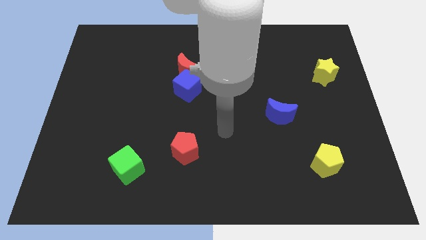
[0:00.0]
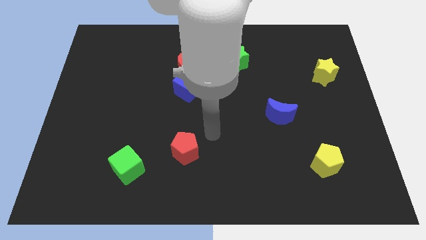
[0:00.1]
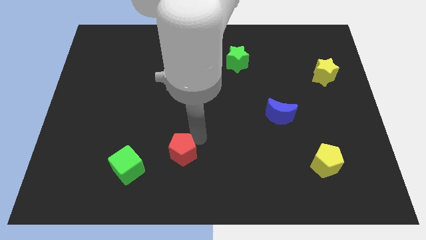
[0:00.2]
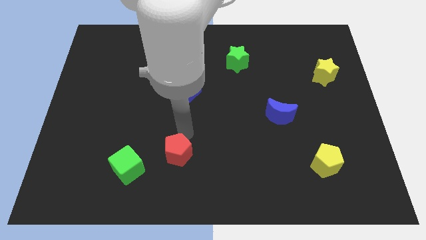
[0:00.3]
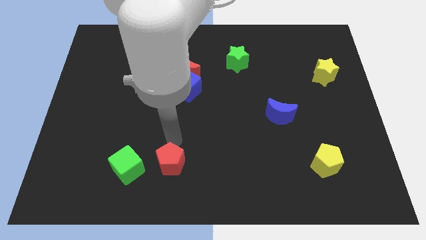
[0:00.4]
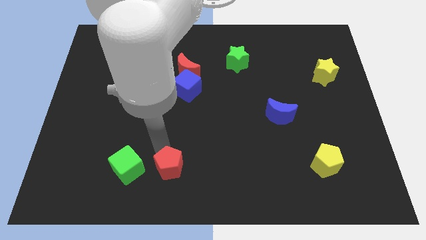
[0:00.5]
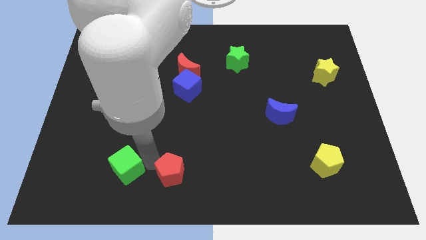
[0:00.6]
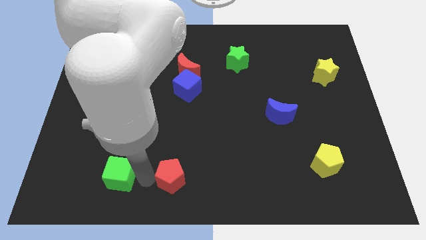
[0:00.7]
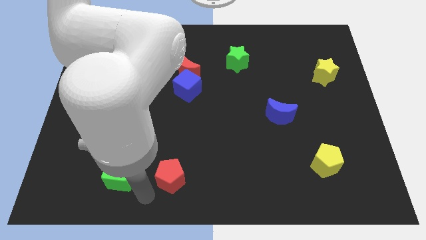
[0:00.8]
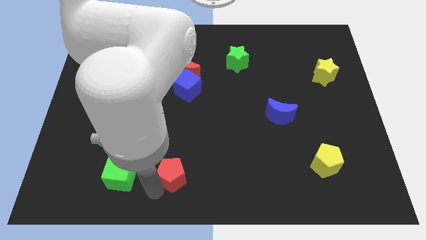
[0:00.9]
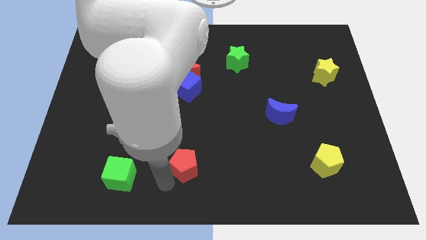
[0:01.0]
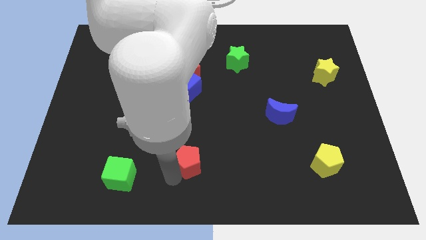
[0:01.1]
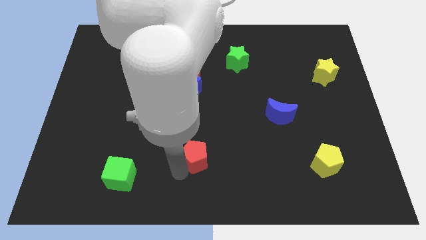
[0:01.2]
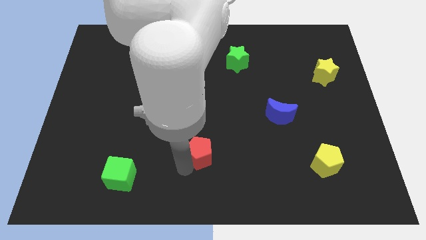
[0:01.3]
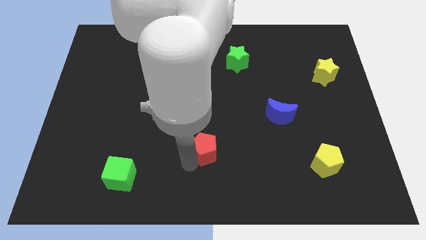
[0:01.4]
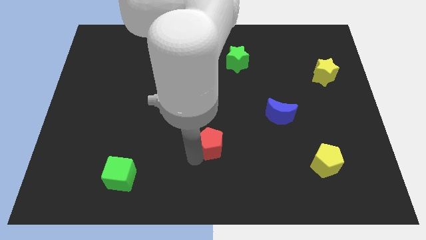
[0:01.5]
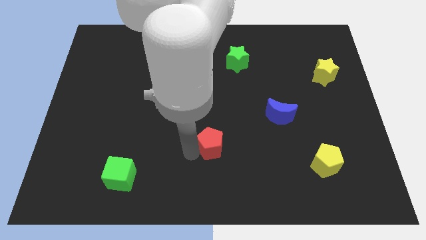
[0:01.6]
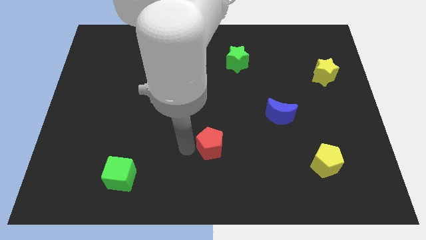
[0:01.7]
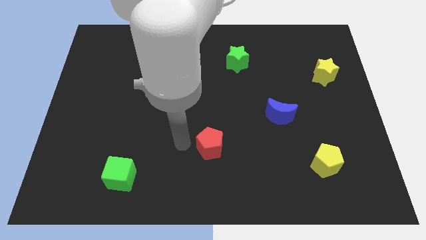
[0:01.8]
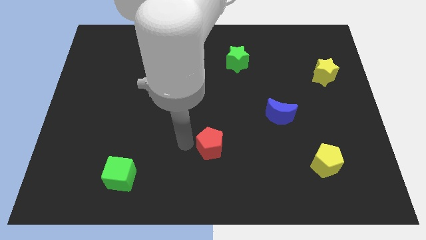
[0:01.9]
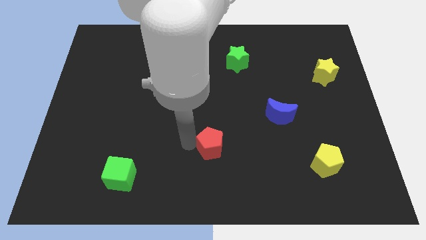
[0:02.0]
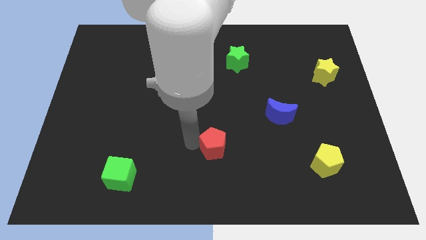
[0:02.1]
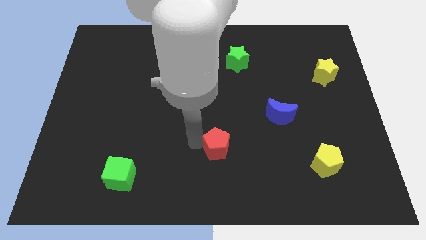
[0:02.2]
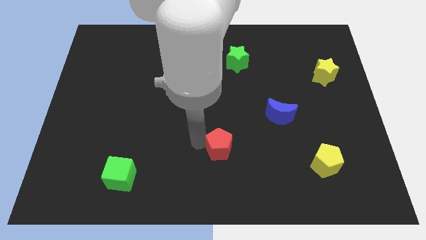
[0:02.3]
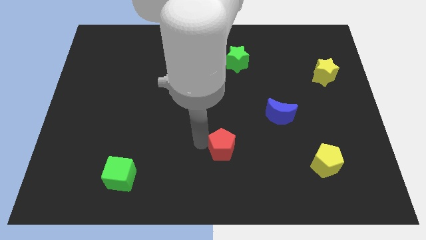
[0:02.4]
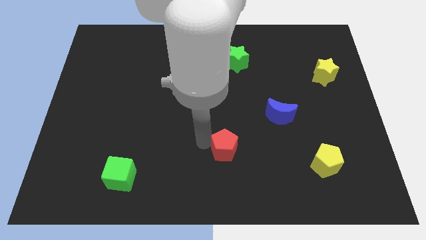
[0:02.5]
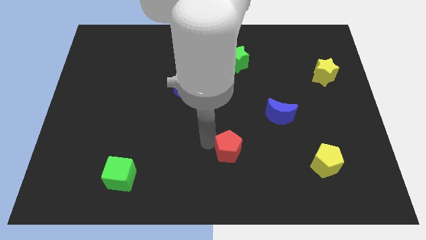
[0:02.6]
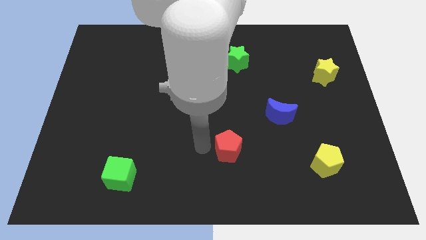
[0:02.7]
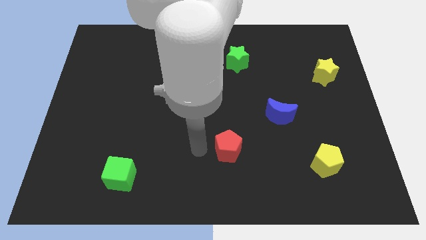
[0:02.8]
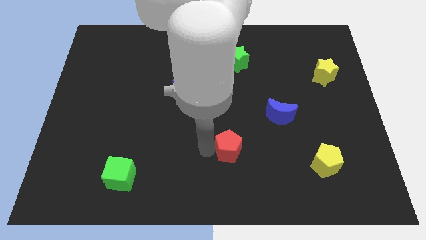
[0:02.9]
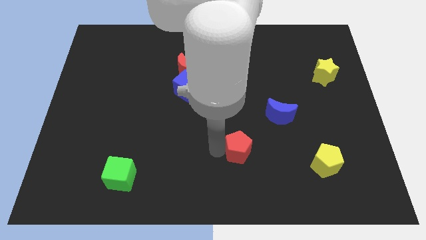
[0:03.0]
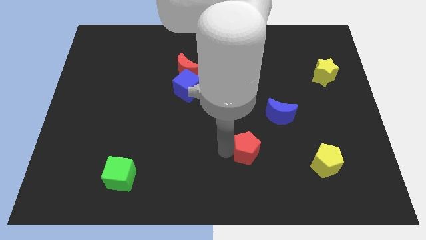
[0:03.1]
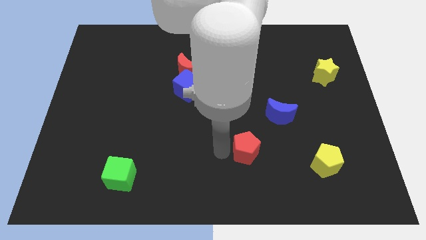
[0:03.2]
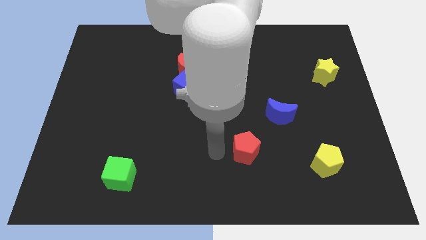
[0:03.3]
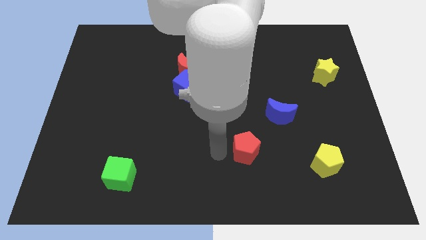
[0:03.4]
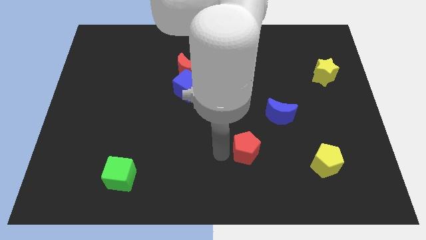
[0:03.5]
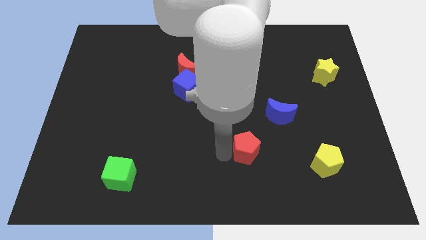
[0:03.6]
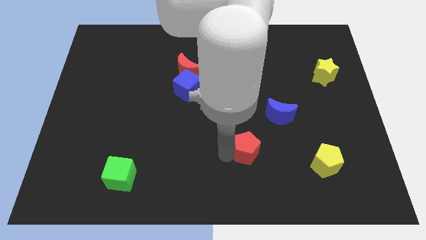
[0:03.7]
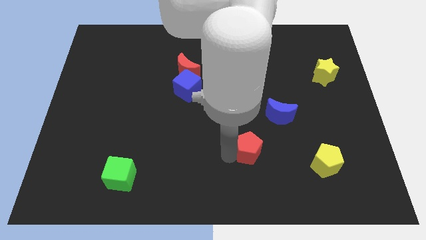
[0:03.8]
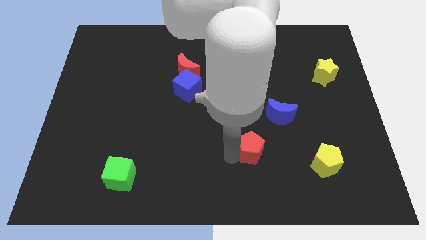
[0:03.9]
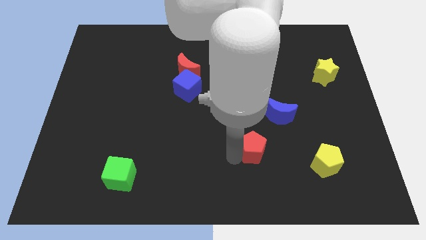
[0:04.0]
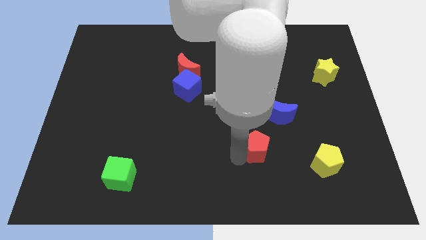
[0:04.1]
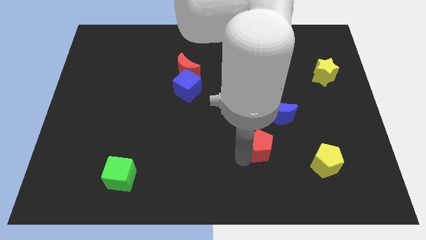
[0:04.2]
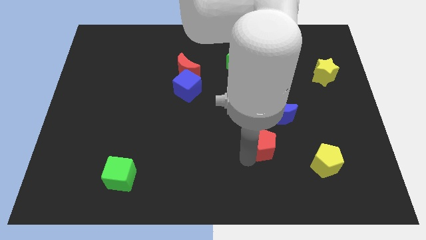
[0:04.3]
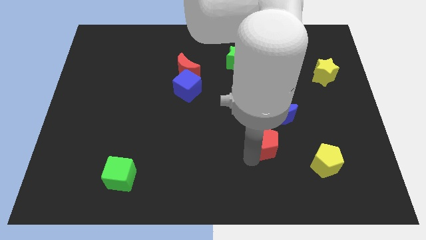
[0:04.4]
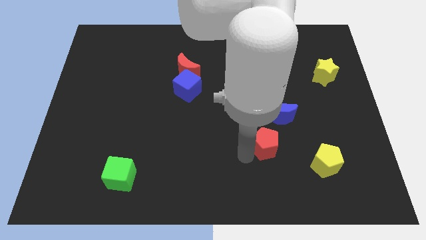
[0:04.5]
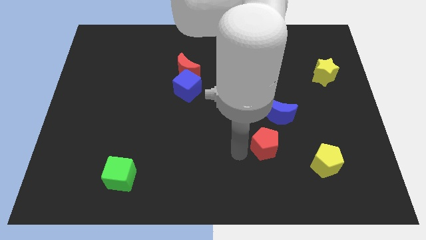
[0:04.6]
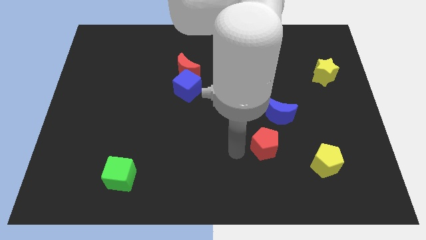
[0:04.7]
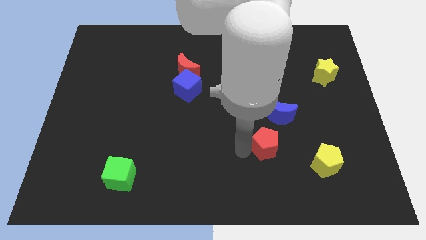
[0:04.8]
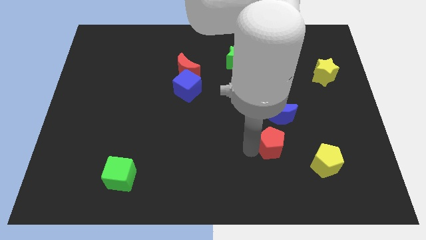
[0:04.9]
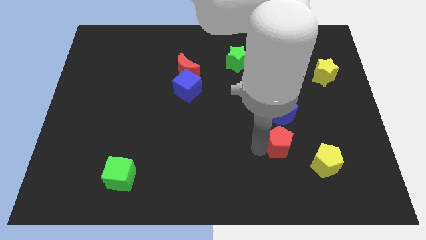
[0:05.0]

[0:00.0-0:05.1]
slide the red pentagon diagonally up and to the left of the yellow pentagon

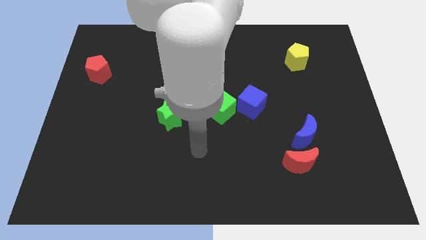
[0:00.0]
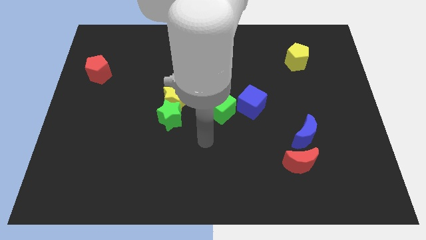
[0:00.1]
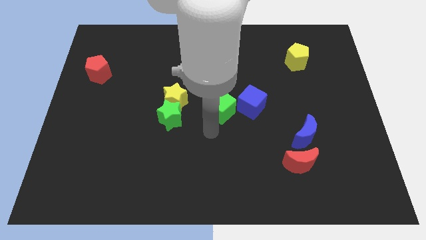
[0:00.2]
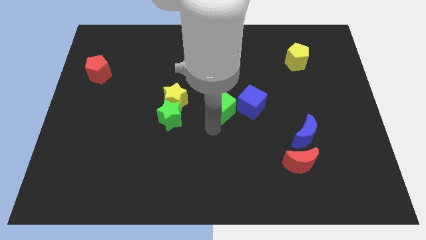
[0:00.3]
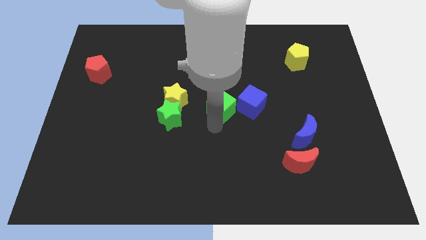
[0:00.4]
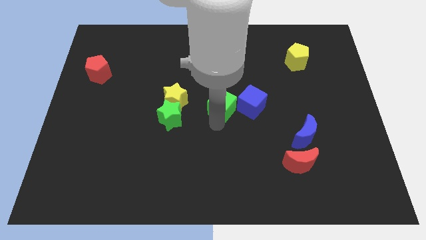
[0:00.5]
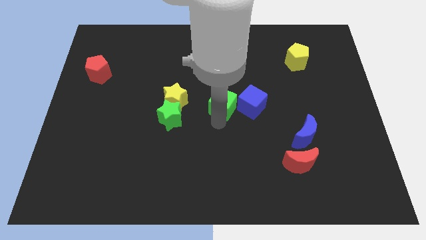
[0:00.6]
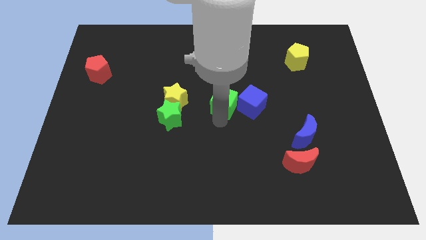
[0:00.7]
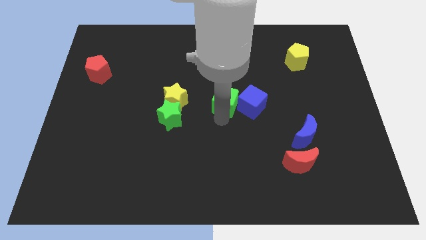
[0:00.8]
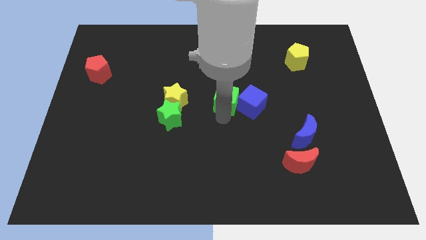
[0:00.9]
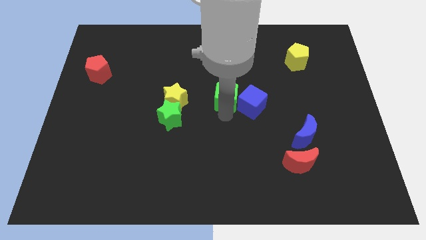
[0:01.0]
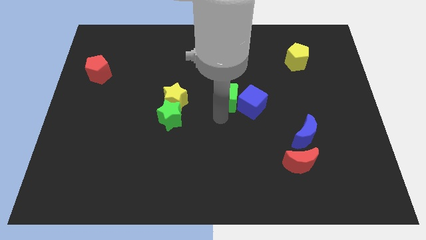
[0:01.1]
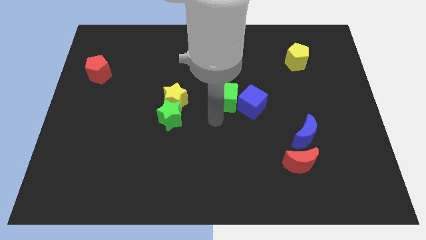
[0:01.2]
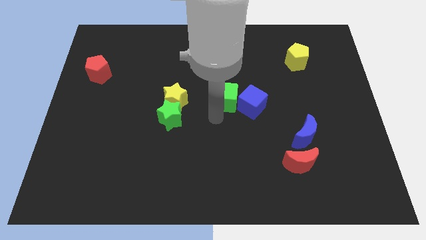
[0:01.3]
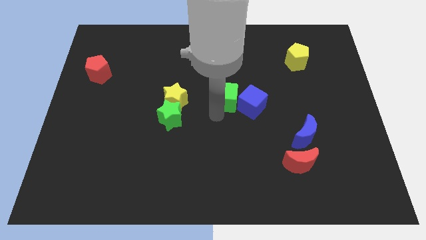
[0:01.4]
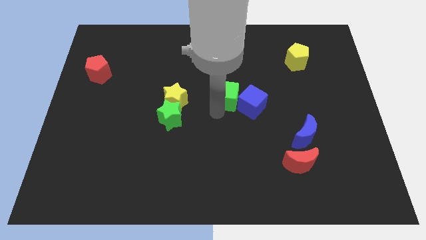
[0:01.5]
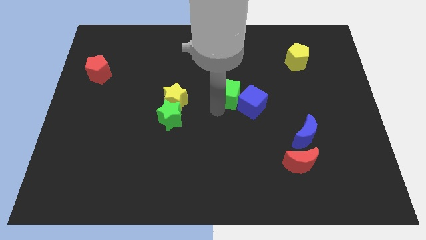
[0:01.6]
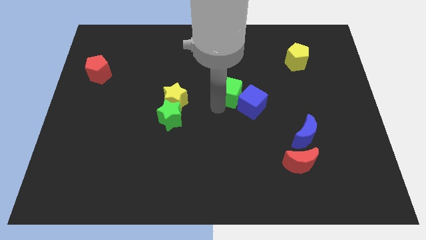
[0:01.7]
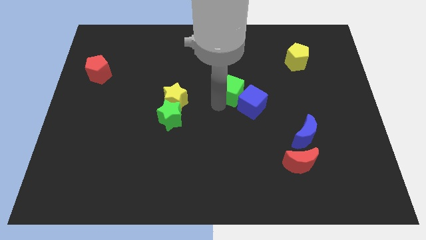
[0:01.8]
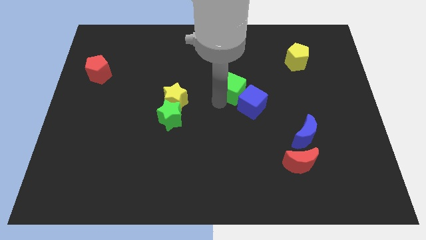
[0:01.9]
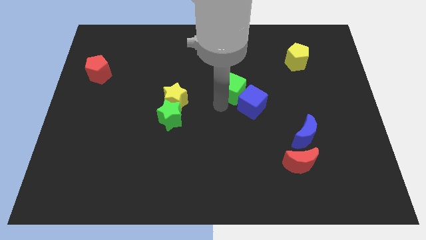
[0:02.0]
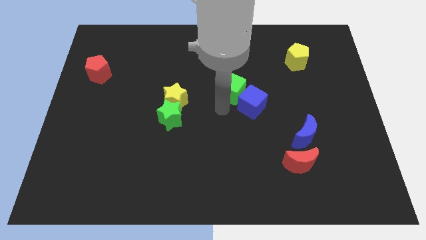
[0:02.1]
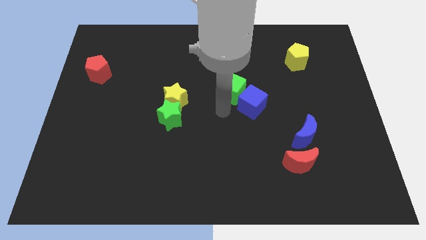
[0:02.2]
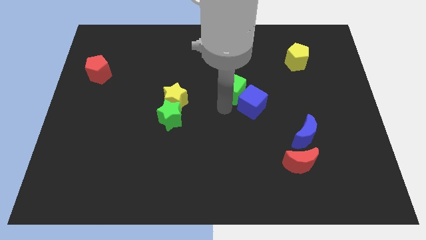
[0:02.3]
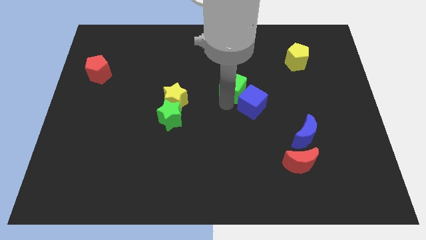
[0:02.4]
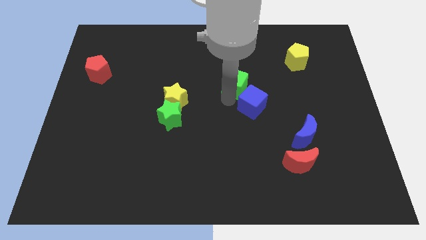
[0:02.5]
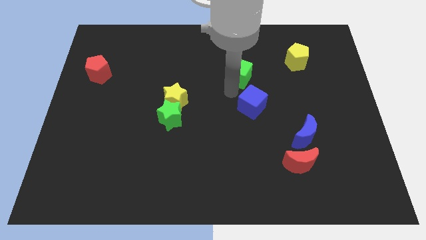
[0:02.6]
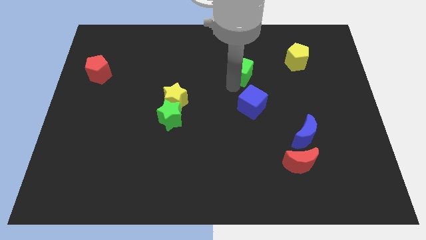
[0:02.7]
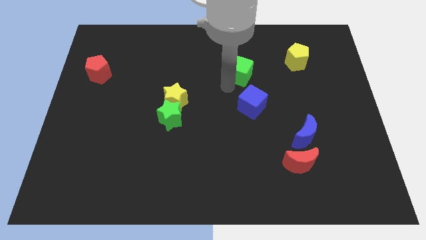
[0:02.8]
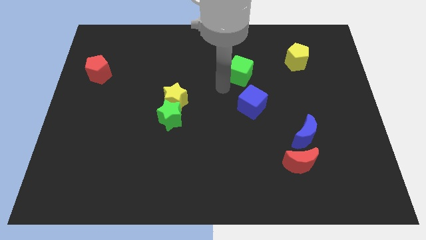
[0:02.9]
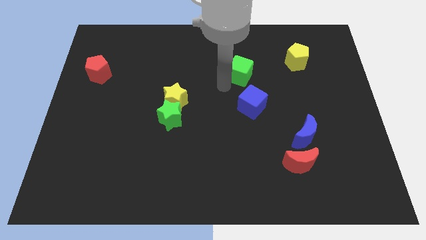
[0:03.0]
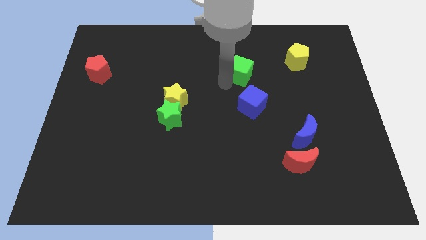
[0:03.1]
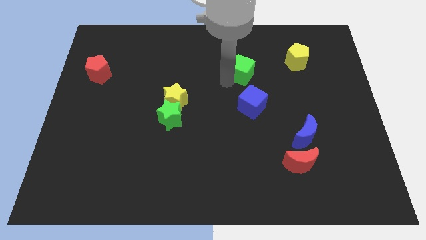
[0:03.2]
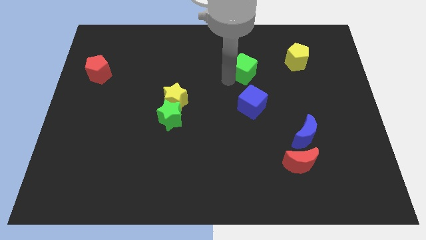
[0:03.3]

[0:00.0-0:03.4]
push the green cube left of the yellow pentagon
